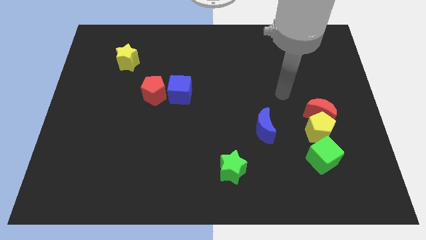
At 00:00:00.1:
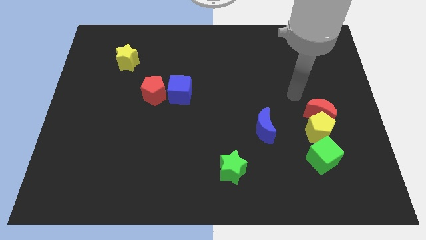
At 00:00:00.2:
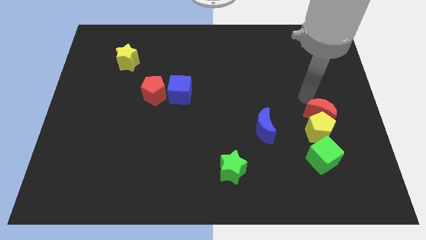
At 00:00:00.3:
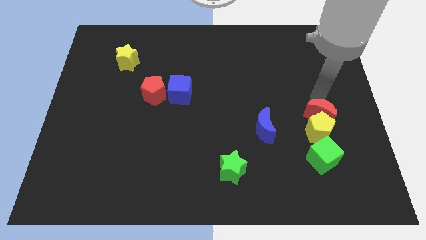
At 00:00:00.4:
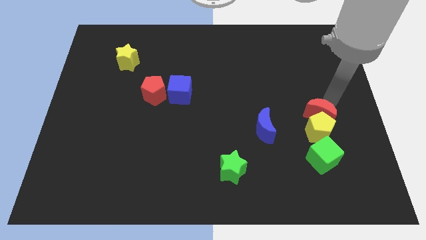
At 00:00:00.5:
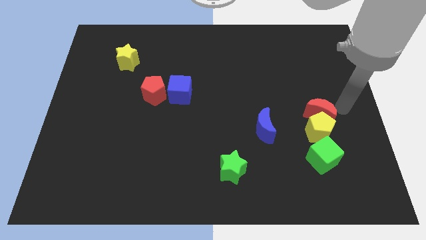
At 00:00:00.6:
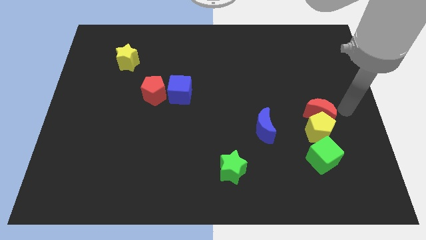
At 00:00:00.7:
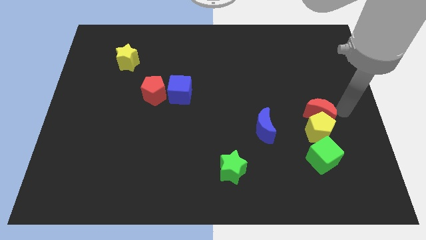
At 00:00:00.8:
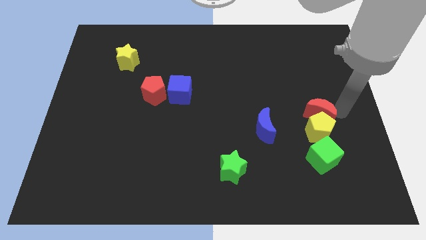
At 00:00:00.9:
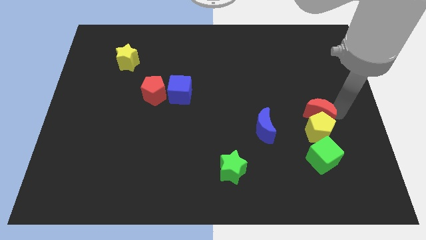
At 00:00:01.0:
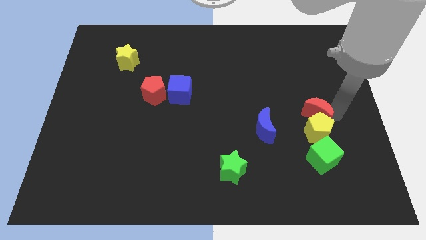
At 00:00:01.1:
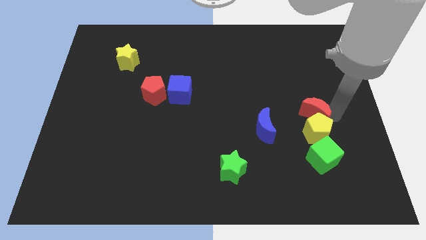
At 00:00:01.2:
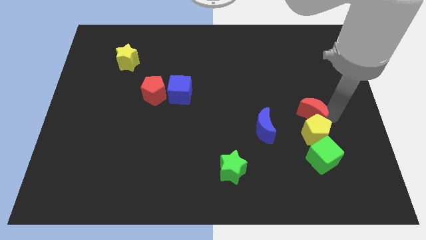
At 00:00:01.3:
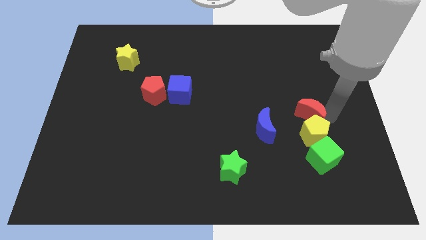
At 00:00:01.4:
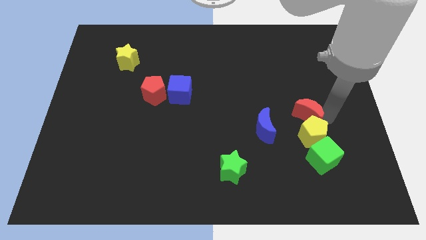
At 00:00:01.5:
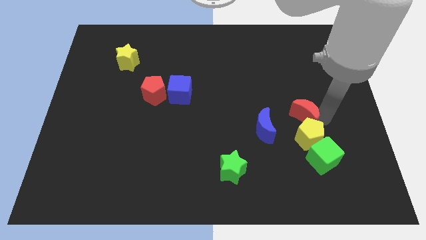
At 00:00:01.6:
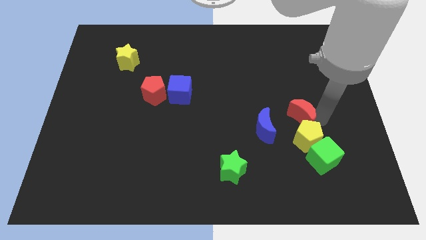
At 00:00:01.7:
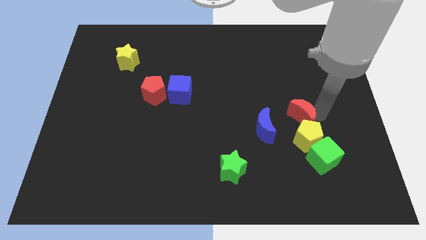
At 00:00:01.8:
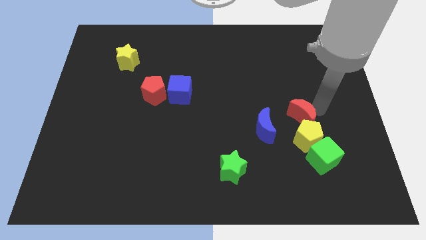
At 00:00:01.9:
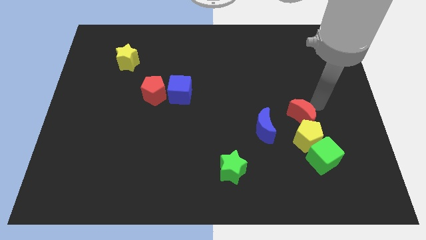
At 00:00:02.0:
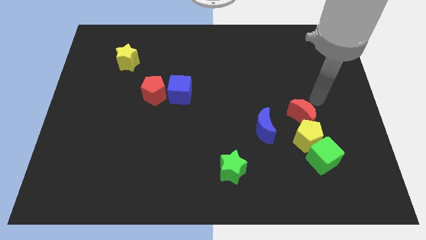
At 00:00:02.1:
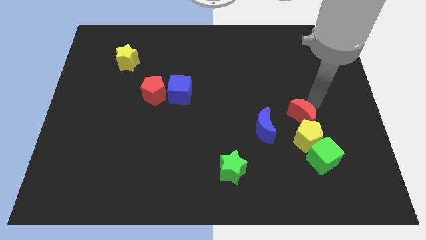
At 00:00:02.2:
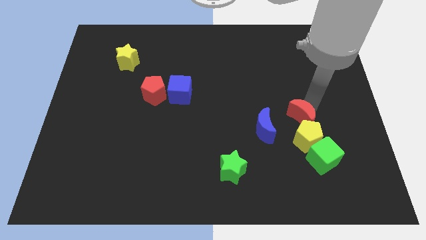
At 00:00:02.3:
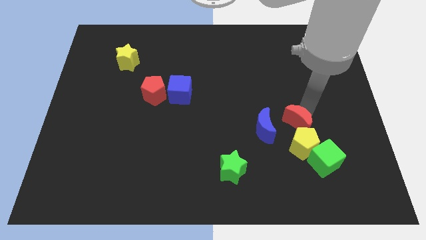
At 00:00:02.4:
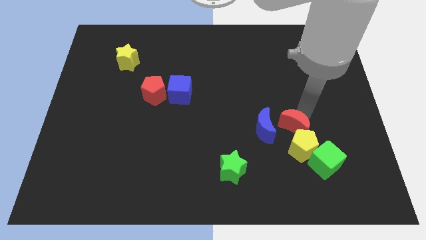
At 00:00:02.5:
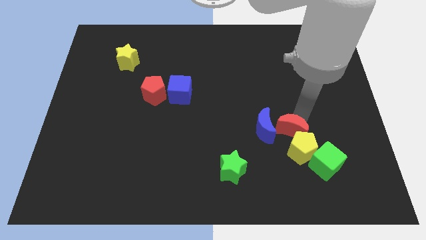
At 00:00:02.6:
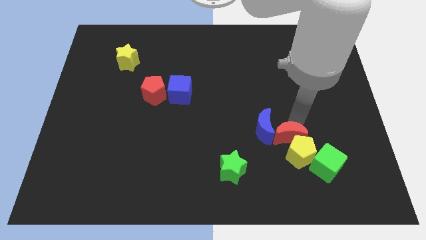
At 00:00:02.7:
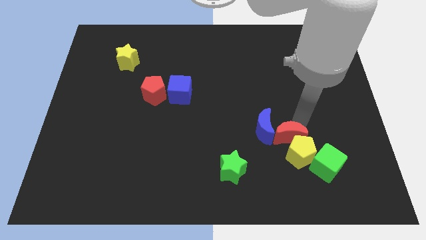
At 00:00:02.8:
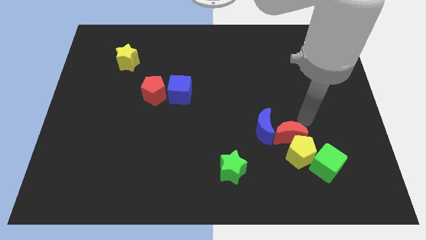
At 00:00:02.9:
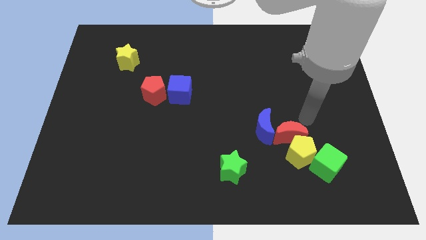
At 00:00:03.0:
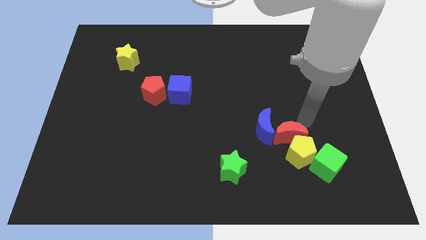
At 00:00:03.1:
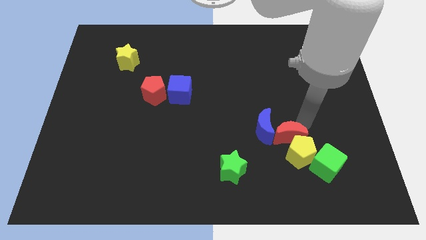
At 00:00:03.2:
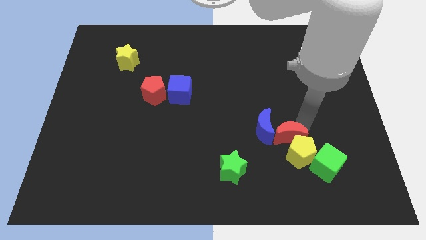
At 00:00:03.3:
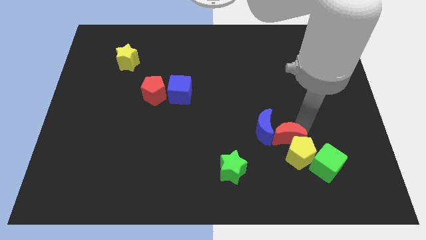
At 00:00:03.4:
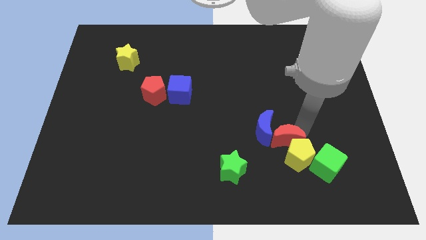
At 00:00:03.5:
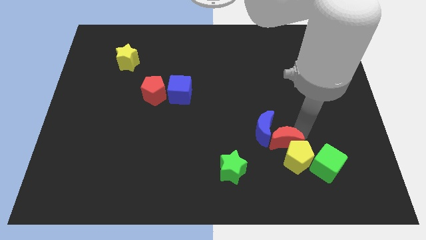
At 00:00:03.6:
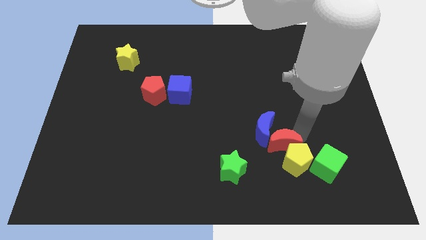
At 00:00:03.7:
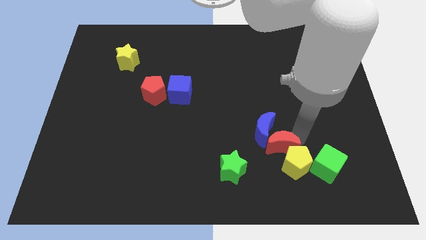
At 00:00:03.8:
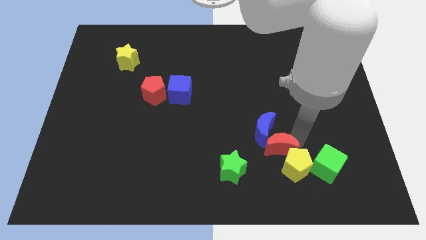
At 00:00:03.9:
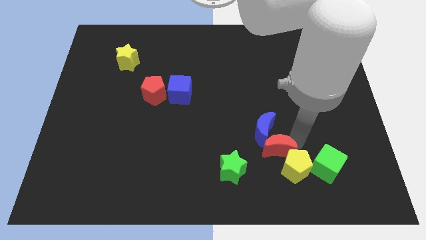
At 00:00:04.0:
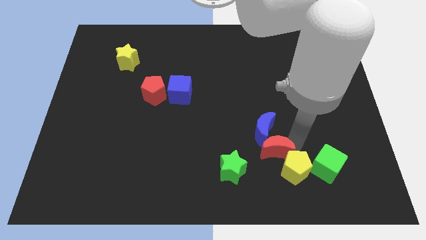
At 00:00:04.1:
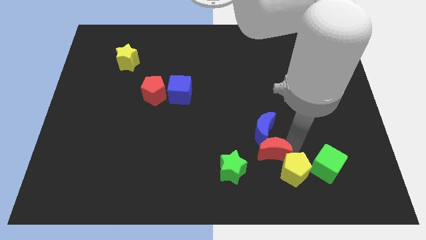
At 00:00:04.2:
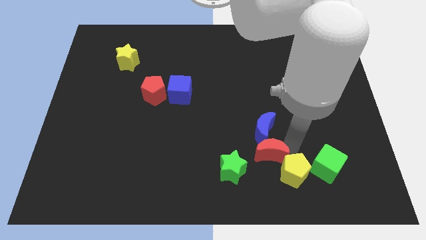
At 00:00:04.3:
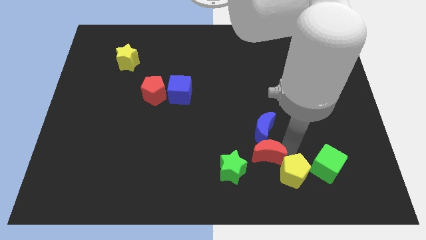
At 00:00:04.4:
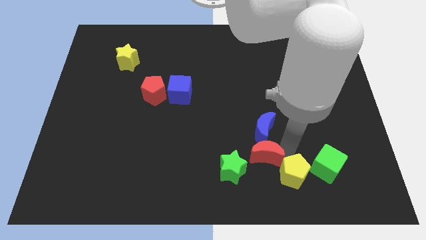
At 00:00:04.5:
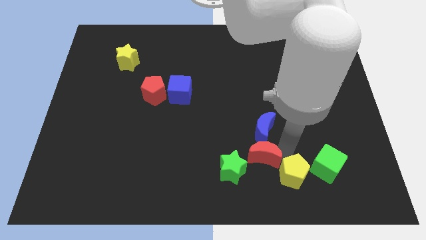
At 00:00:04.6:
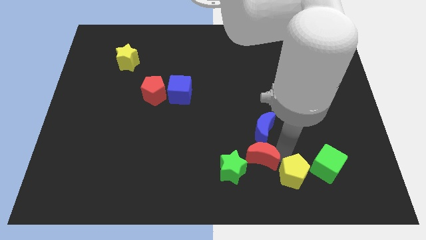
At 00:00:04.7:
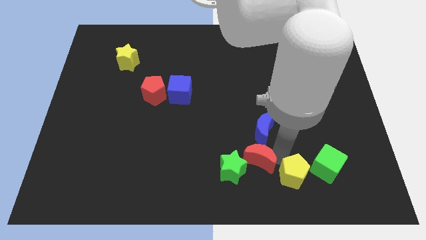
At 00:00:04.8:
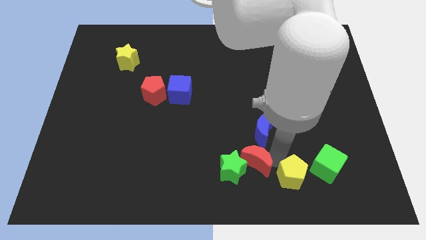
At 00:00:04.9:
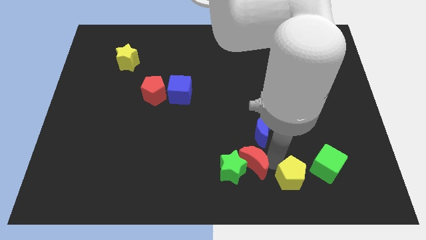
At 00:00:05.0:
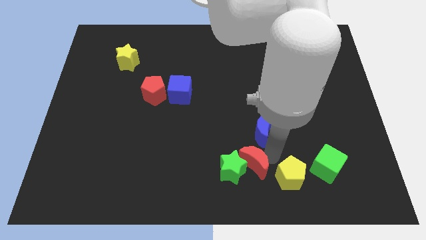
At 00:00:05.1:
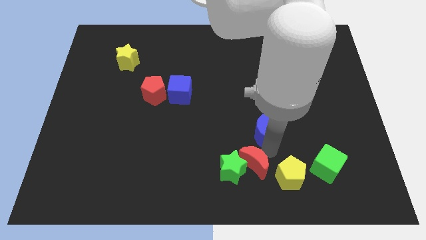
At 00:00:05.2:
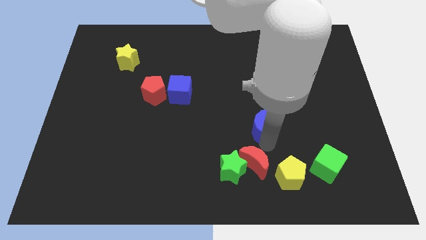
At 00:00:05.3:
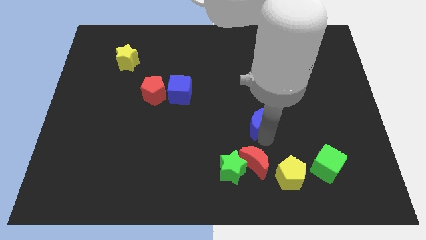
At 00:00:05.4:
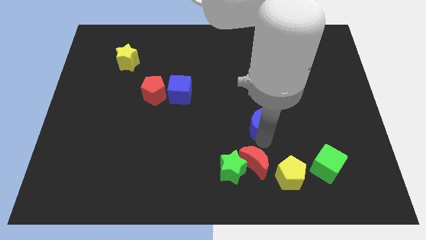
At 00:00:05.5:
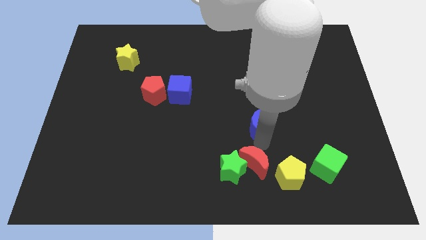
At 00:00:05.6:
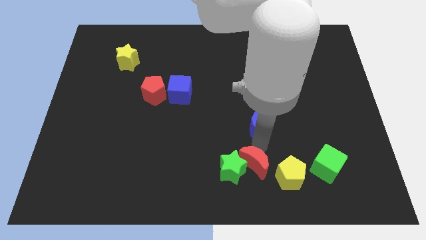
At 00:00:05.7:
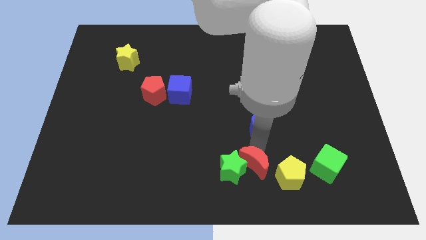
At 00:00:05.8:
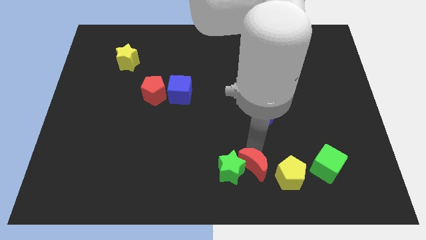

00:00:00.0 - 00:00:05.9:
put the red moon to the bottom
